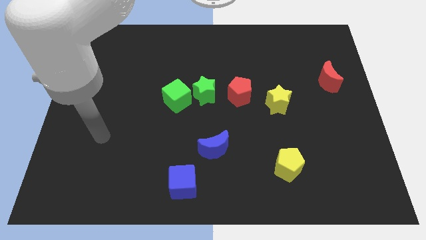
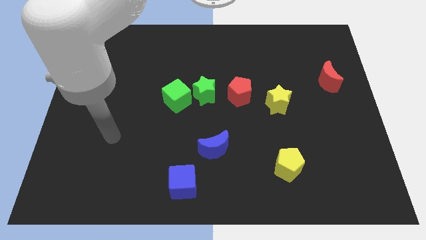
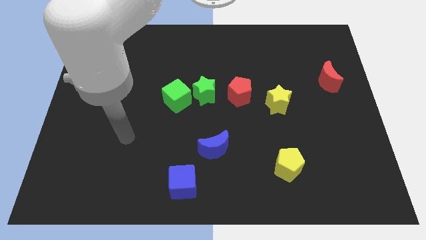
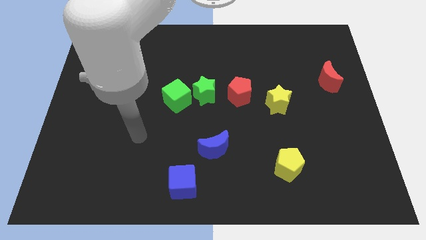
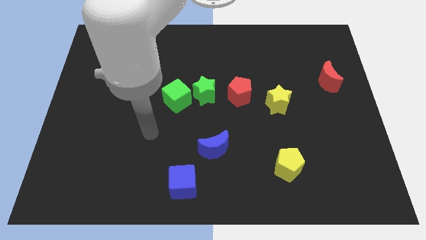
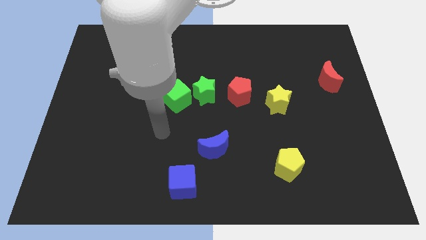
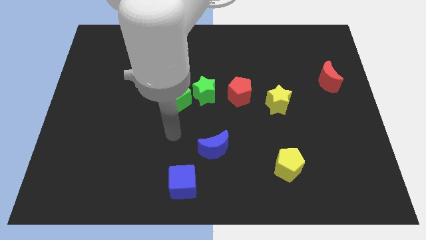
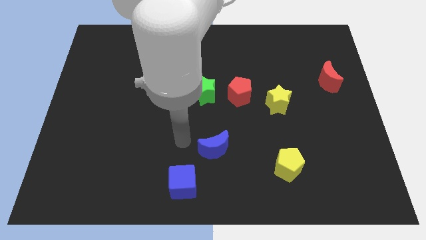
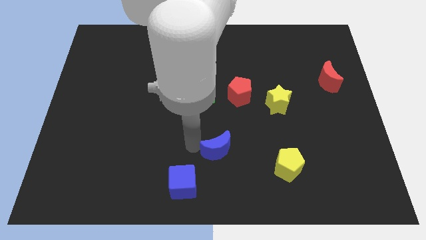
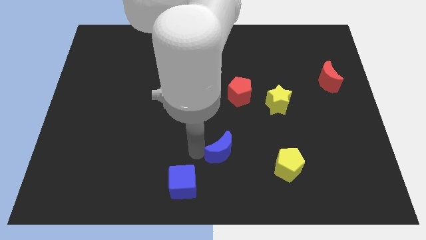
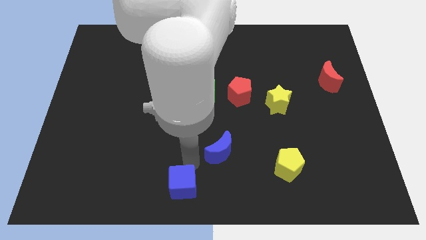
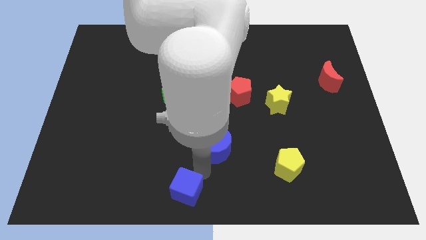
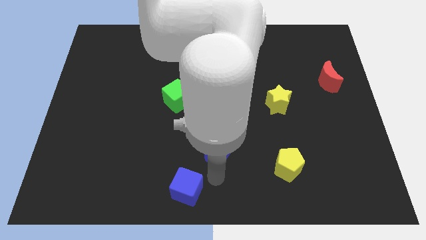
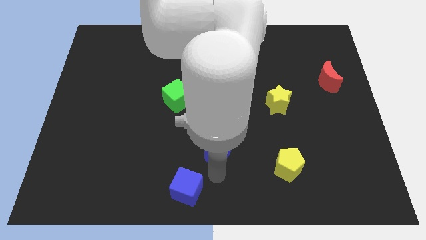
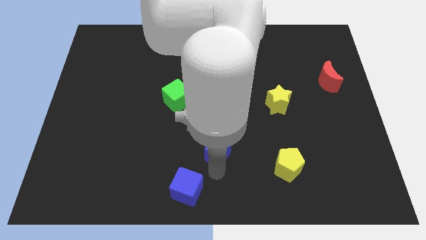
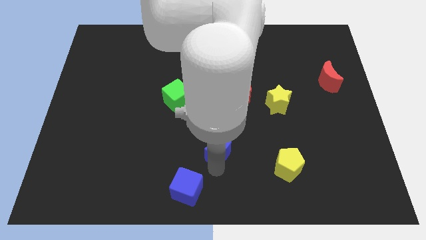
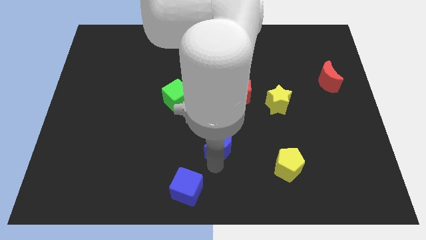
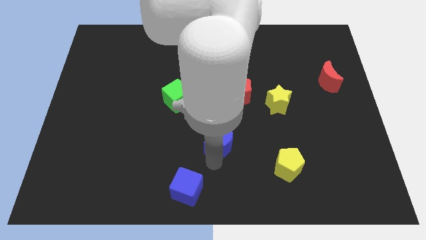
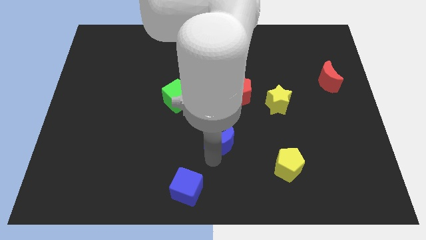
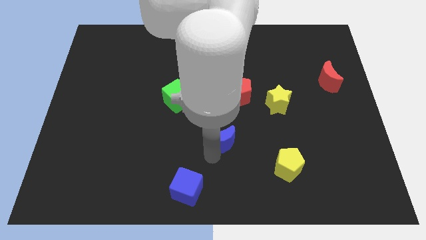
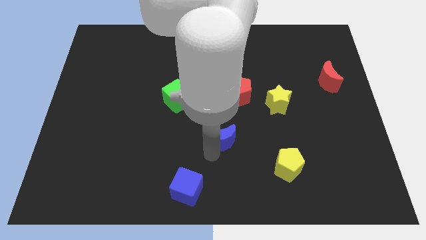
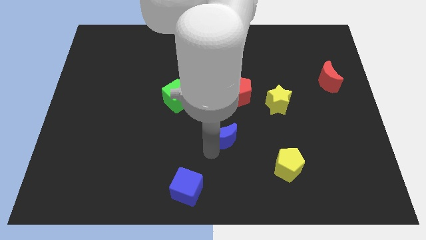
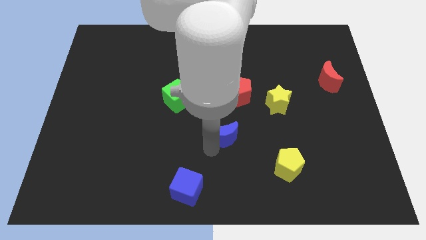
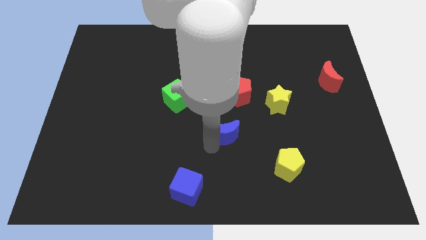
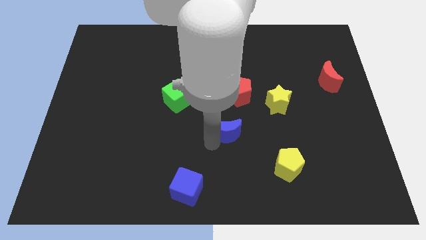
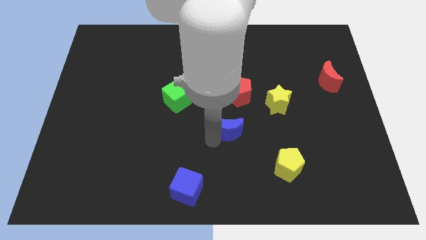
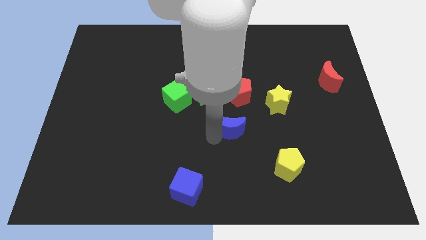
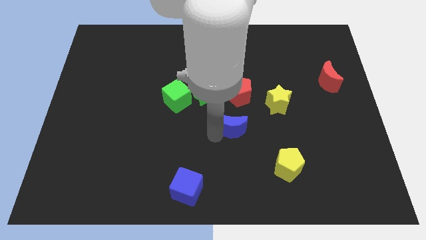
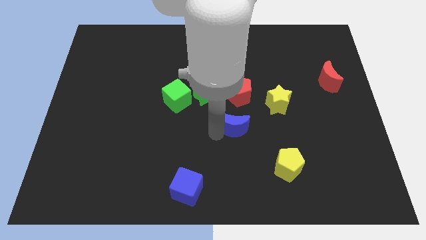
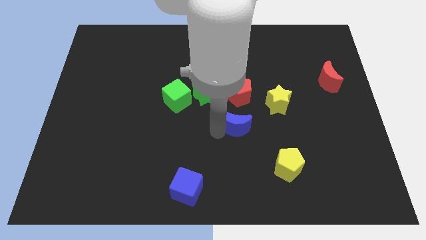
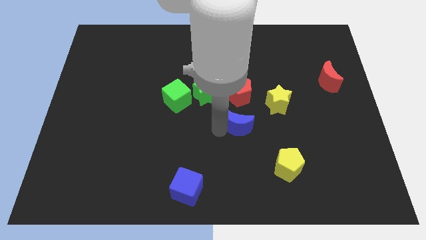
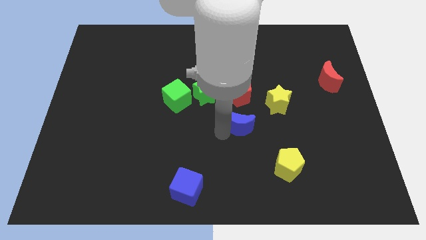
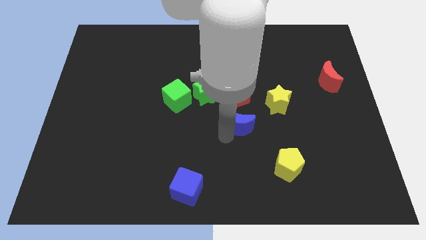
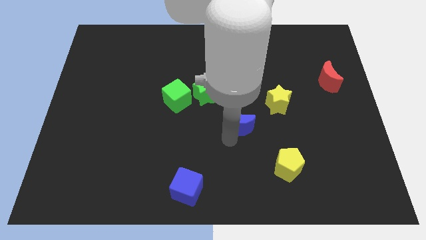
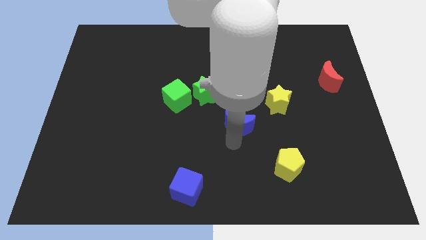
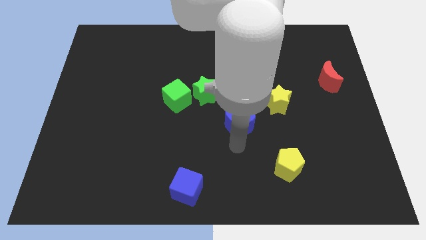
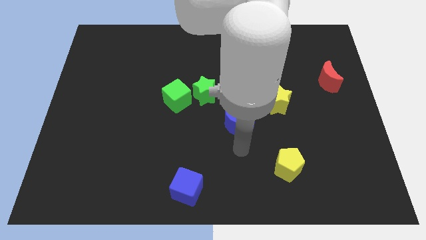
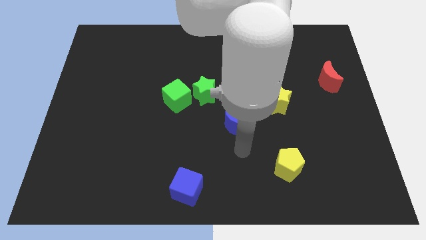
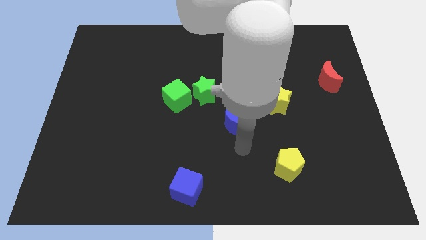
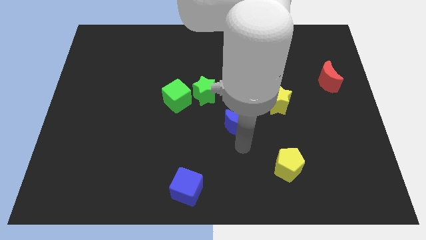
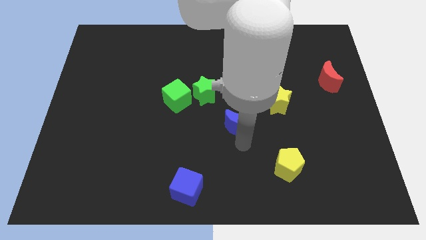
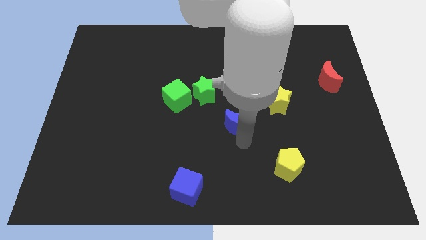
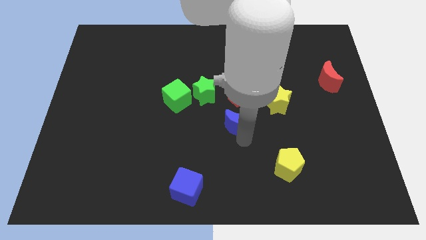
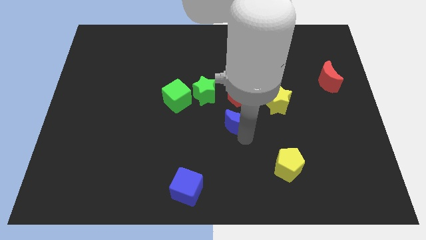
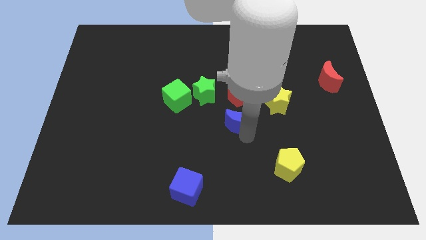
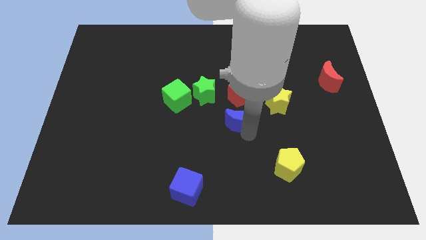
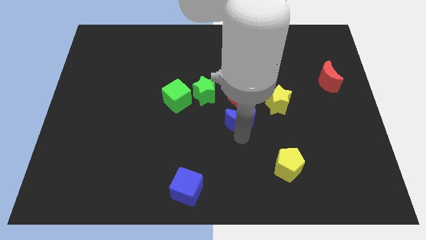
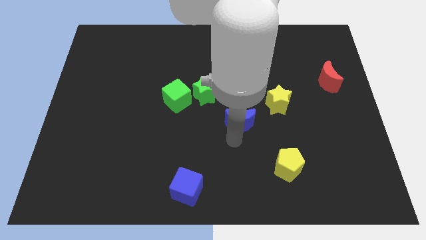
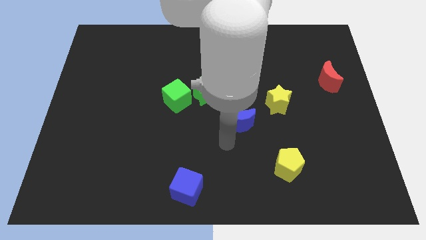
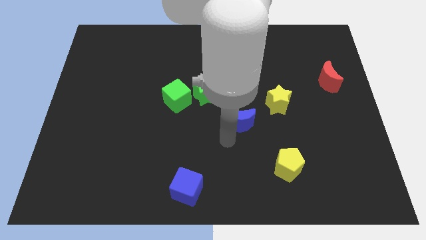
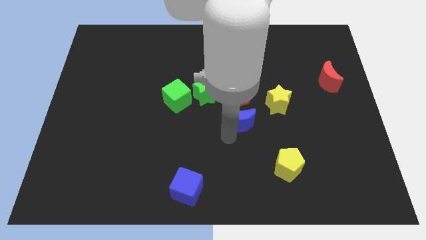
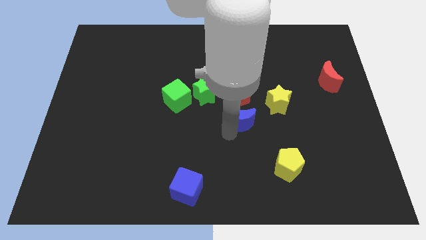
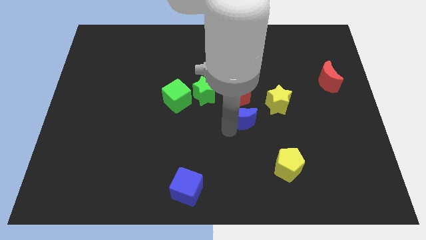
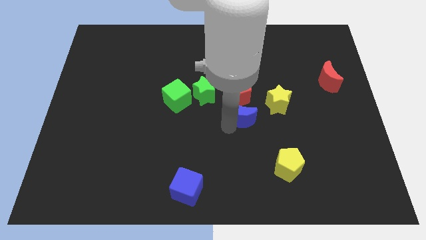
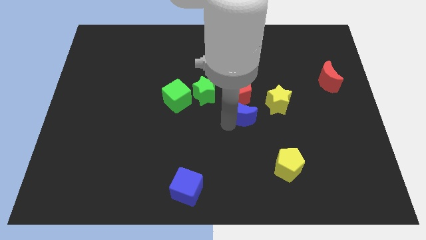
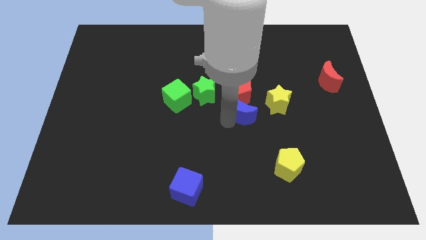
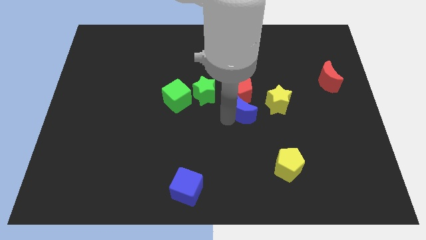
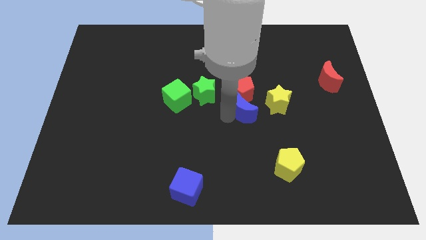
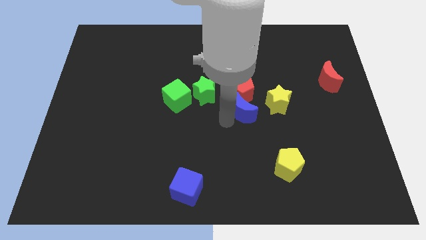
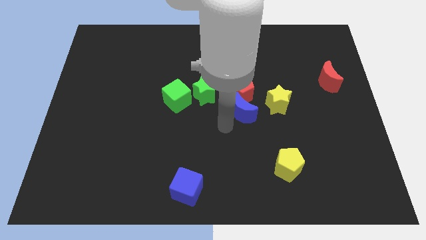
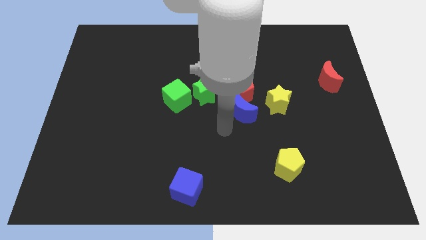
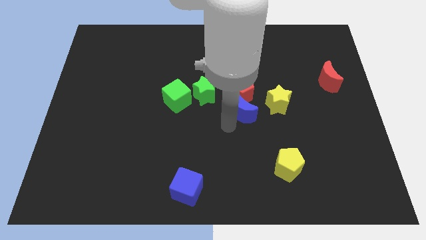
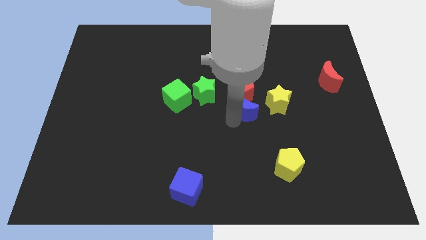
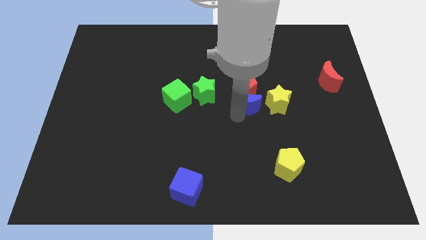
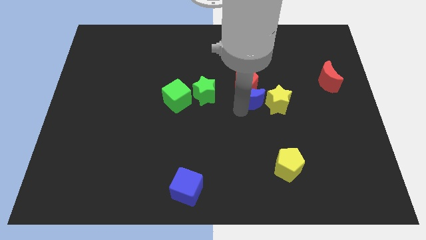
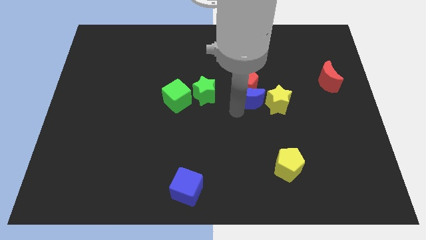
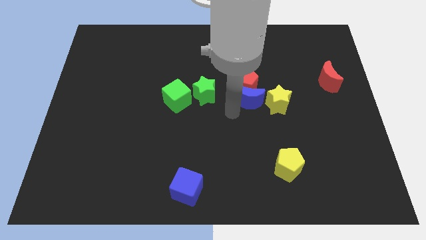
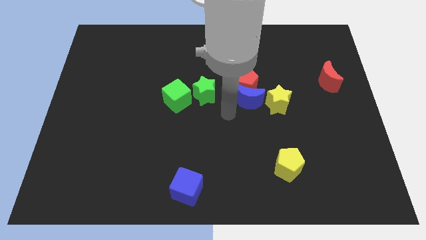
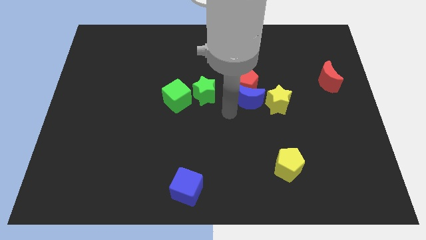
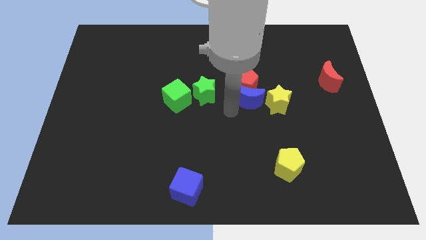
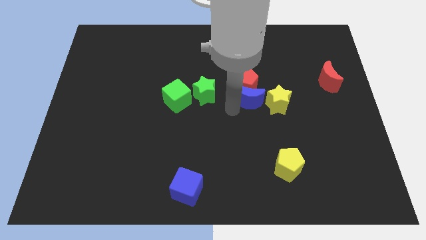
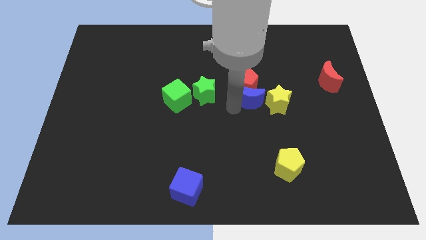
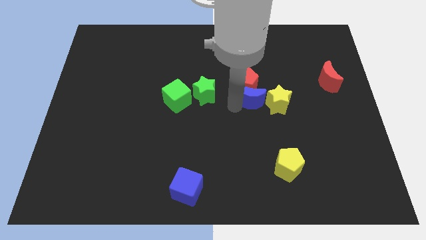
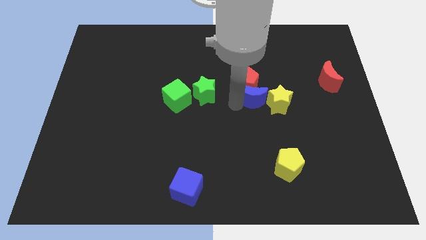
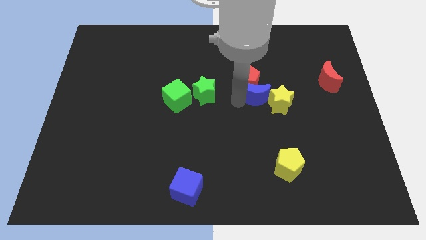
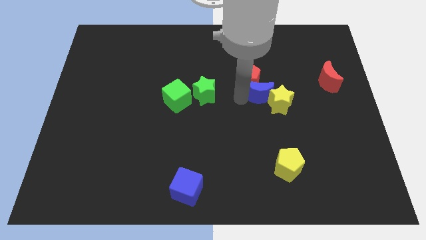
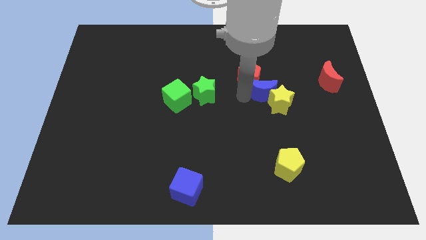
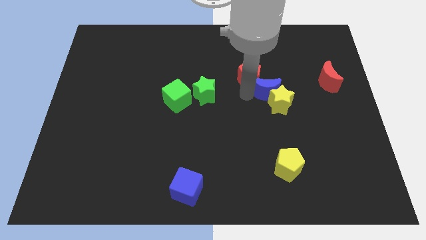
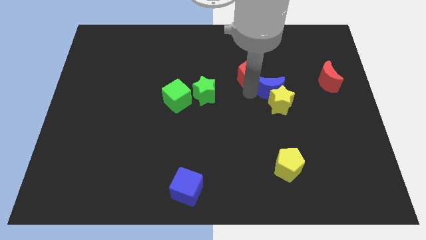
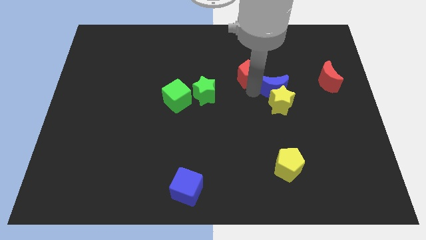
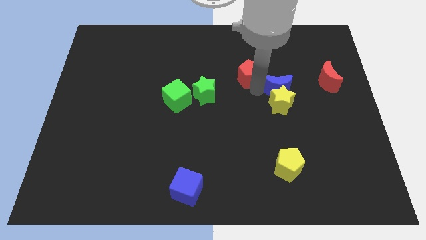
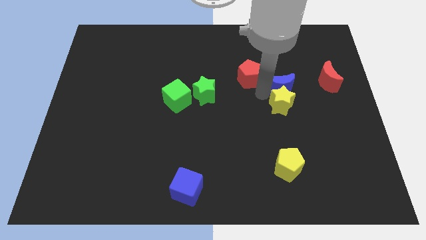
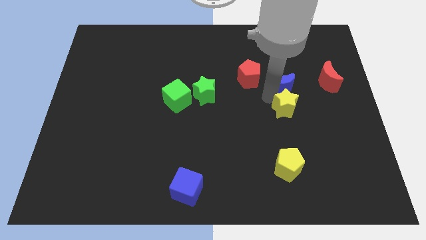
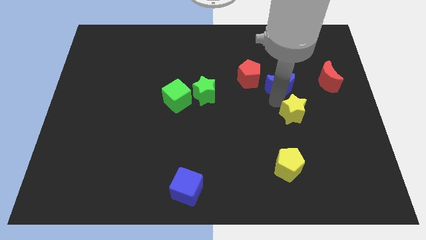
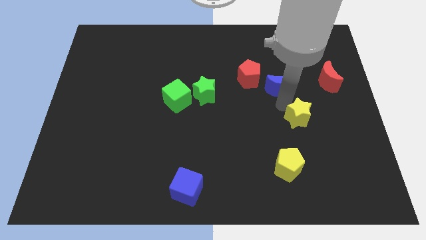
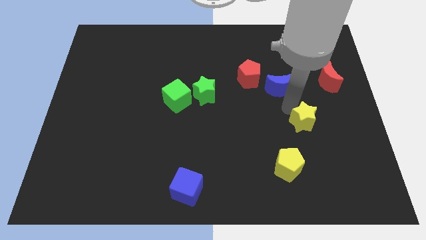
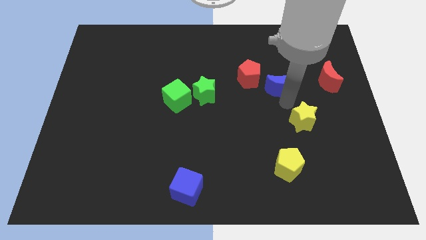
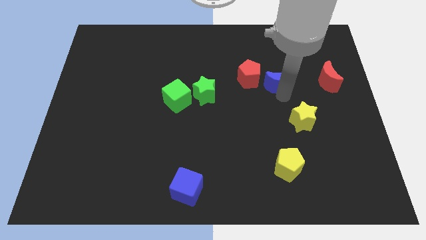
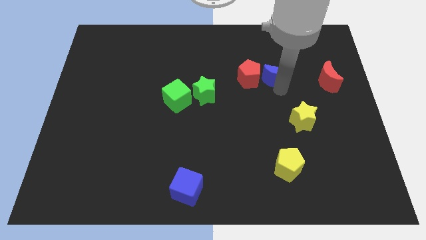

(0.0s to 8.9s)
put the blue moon to the top right side of the red pentagon
